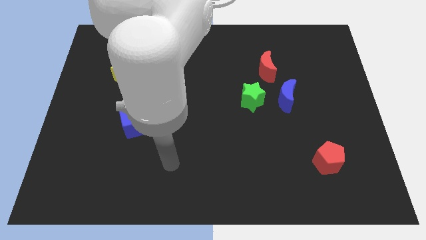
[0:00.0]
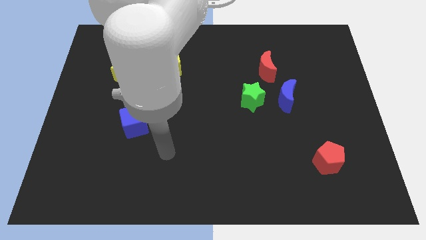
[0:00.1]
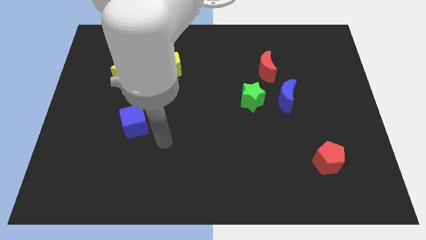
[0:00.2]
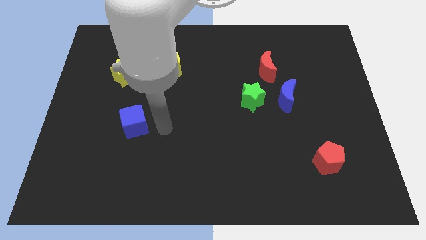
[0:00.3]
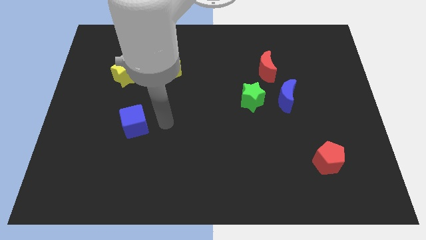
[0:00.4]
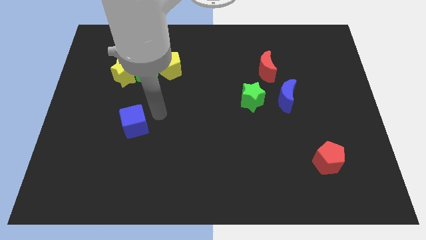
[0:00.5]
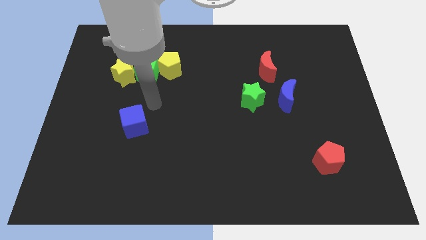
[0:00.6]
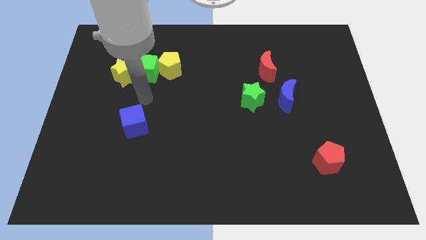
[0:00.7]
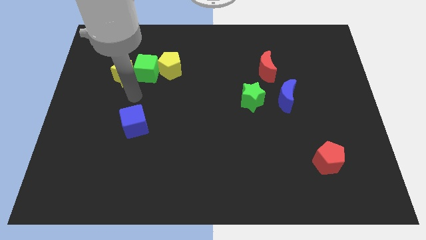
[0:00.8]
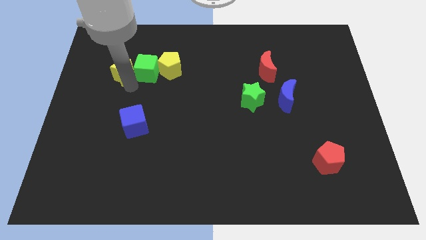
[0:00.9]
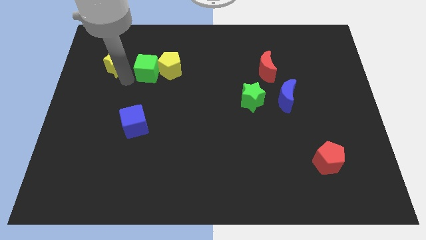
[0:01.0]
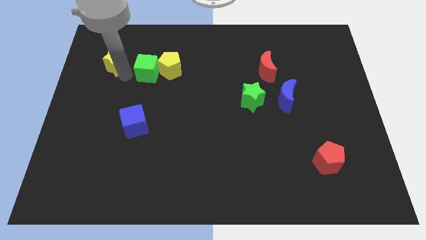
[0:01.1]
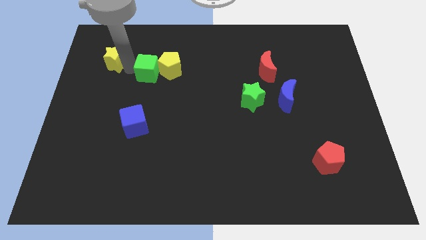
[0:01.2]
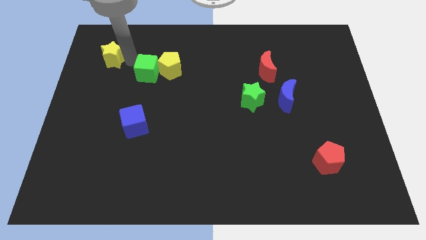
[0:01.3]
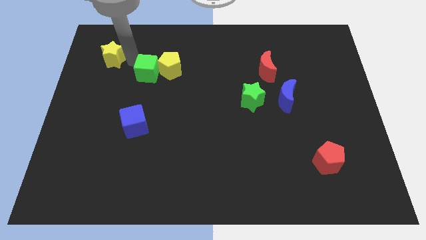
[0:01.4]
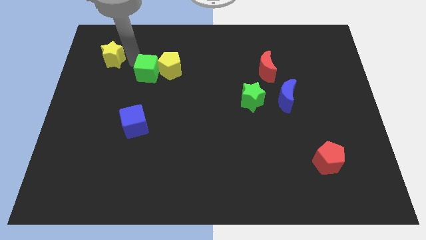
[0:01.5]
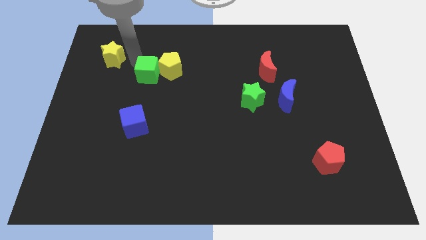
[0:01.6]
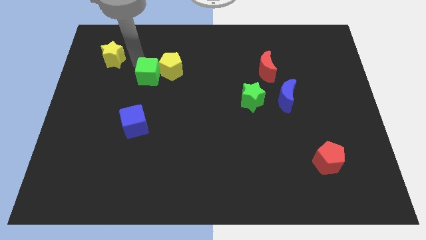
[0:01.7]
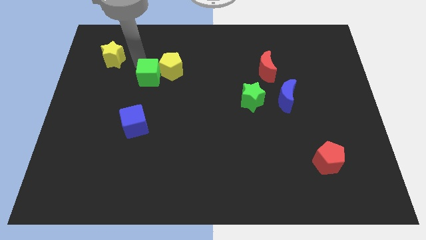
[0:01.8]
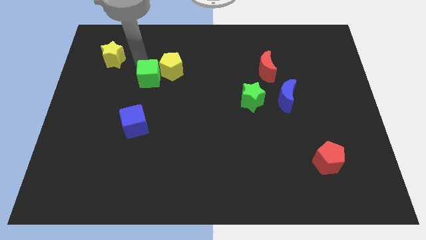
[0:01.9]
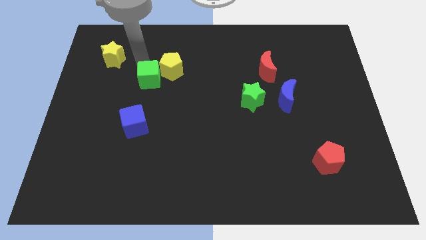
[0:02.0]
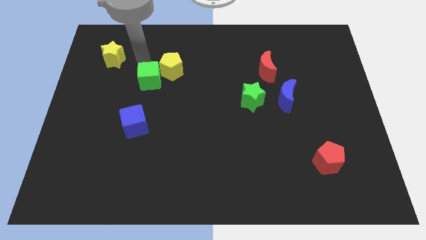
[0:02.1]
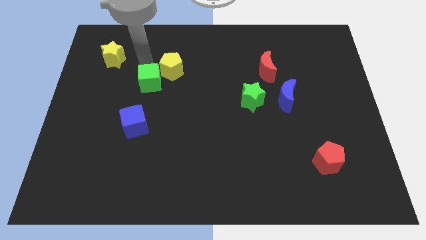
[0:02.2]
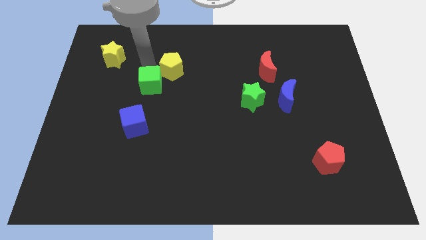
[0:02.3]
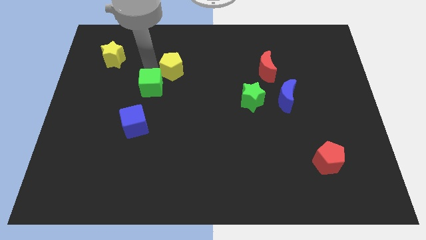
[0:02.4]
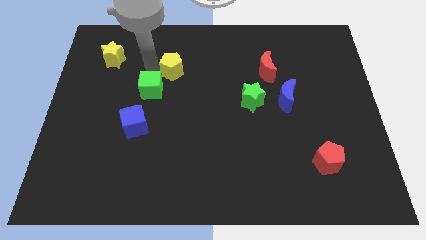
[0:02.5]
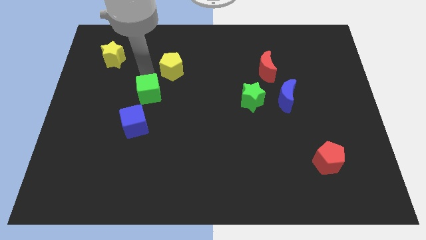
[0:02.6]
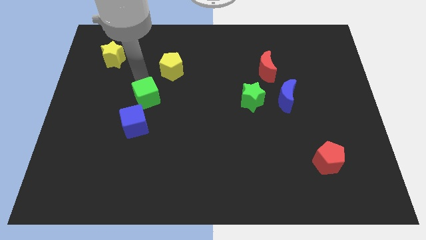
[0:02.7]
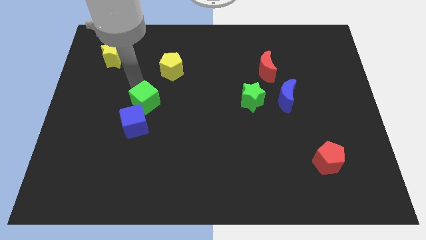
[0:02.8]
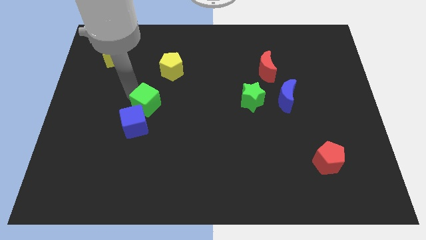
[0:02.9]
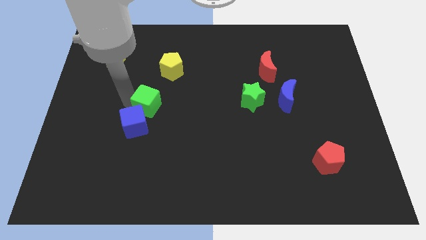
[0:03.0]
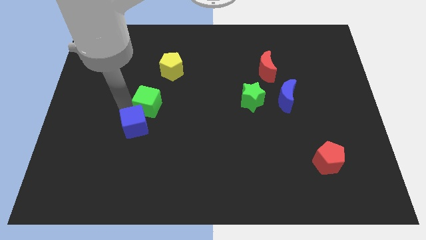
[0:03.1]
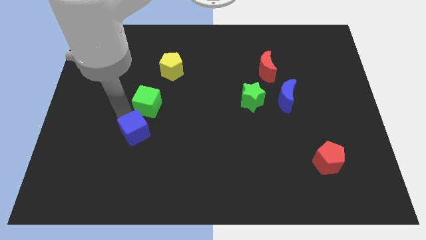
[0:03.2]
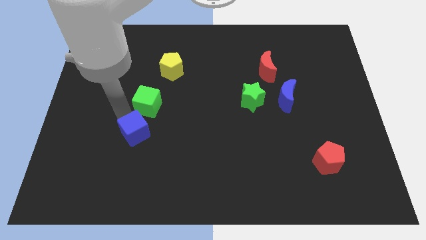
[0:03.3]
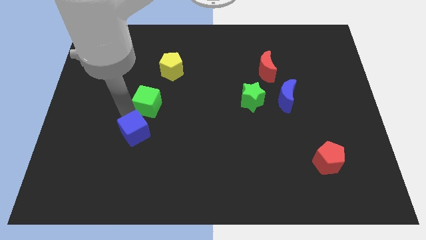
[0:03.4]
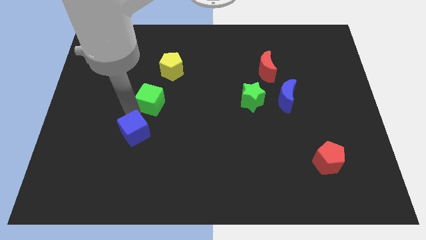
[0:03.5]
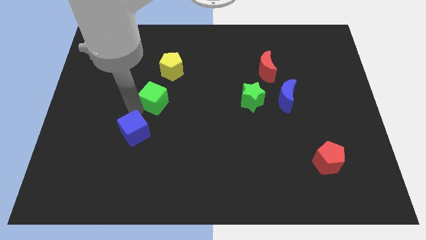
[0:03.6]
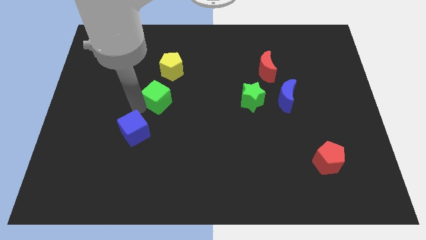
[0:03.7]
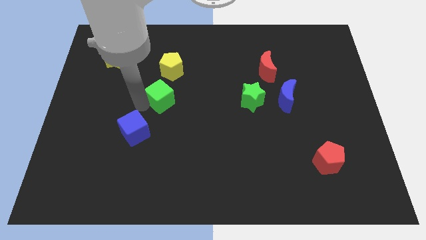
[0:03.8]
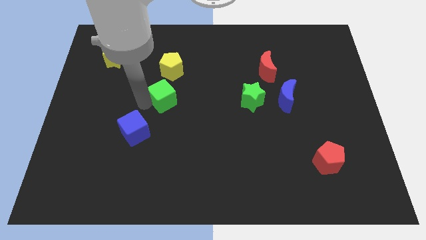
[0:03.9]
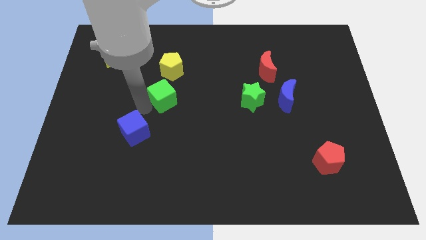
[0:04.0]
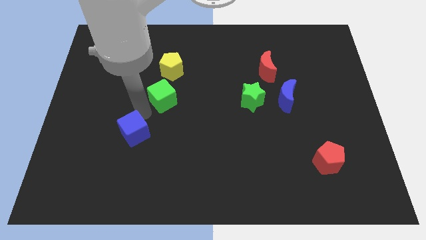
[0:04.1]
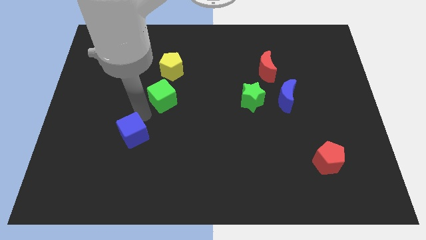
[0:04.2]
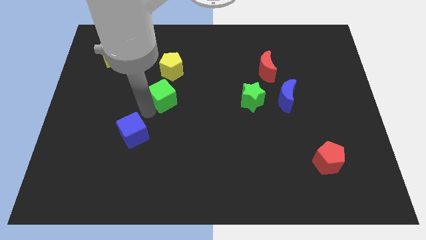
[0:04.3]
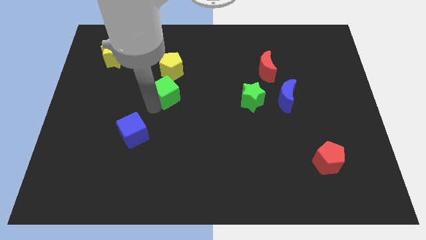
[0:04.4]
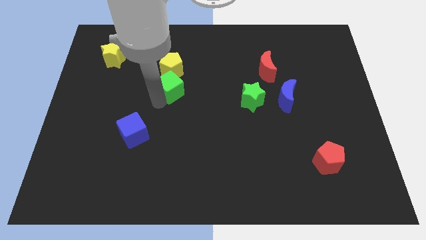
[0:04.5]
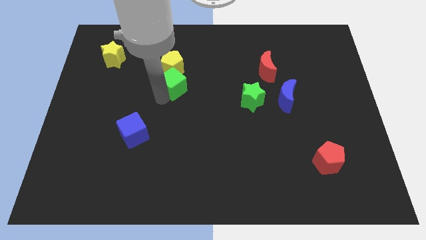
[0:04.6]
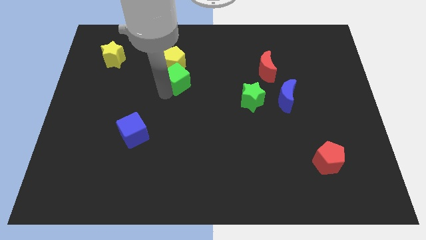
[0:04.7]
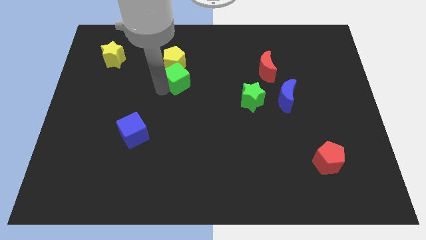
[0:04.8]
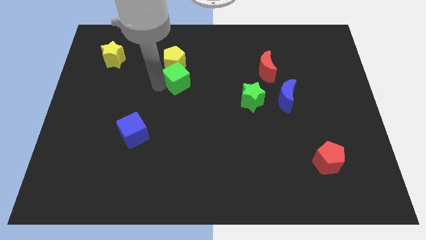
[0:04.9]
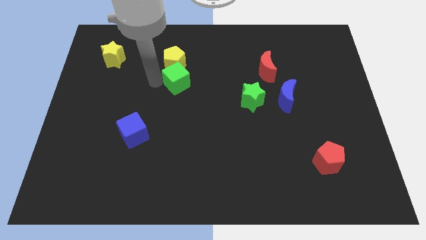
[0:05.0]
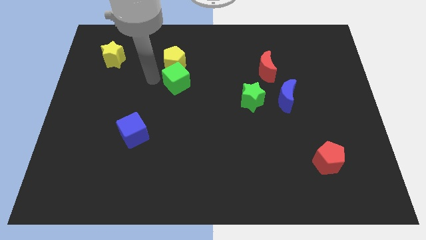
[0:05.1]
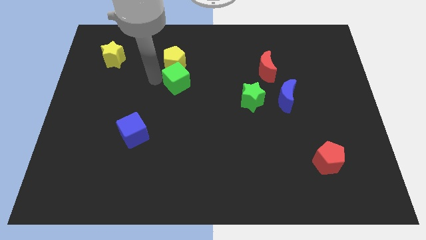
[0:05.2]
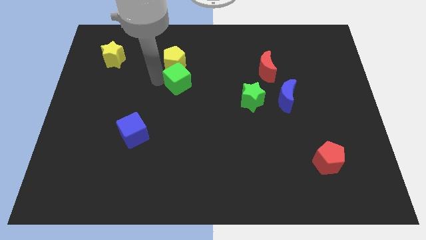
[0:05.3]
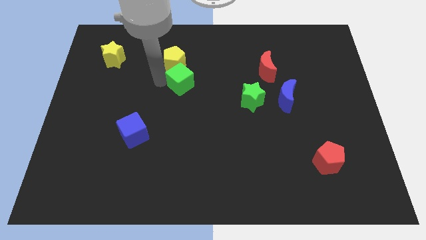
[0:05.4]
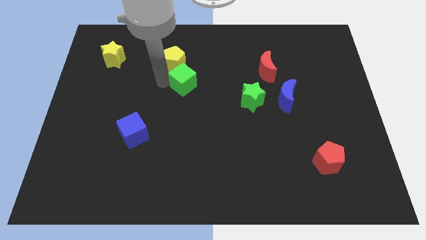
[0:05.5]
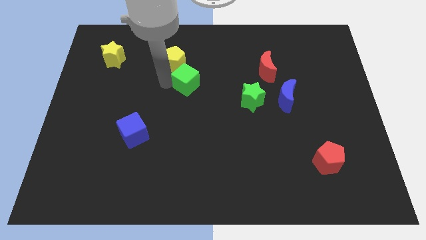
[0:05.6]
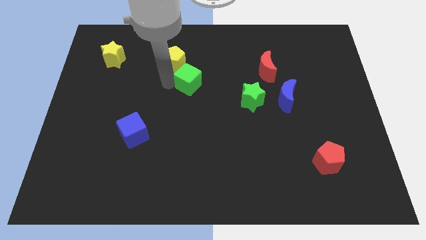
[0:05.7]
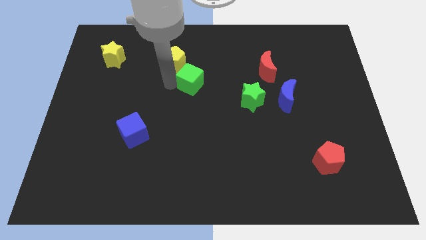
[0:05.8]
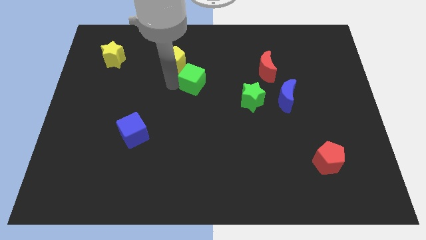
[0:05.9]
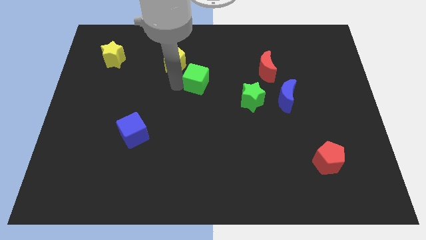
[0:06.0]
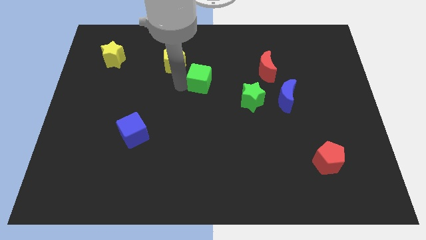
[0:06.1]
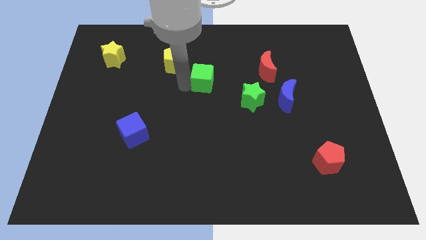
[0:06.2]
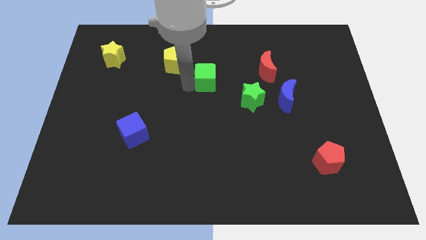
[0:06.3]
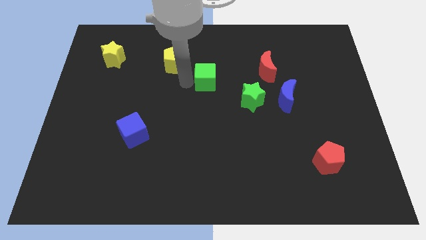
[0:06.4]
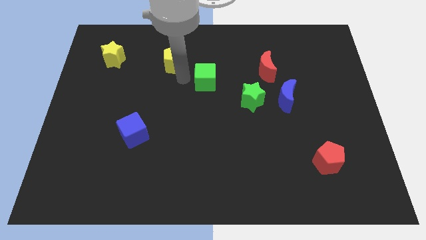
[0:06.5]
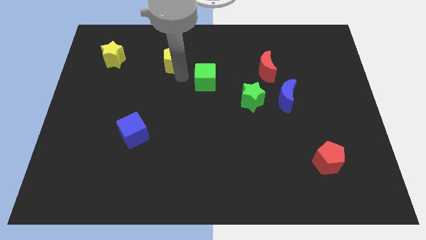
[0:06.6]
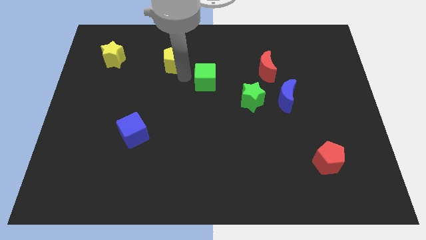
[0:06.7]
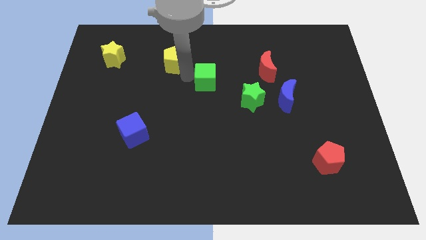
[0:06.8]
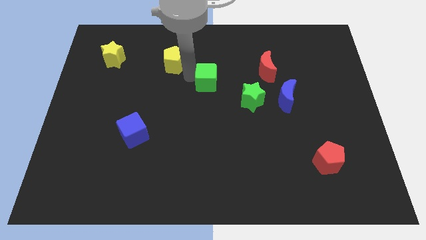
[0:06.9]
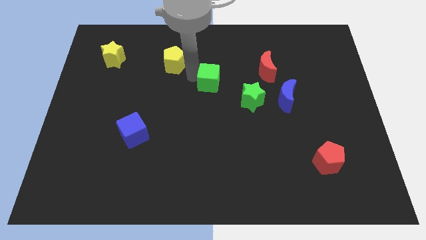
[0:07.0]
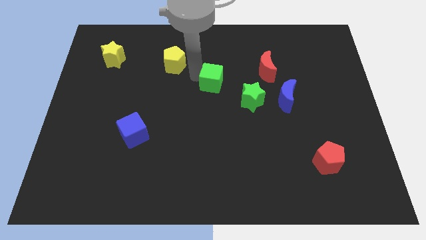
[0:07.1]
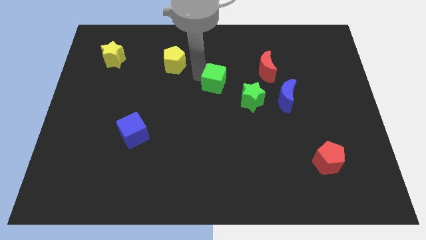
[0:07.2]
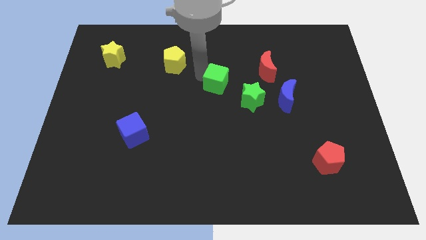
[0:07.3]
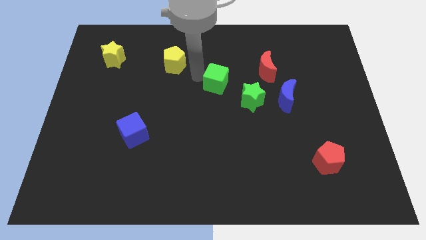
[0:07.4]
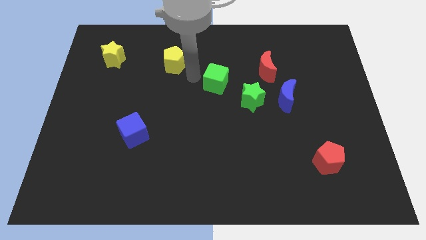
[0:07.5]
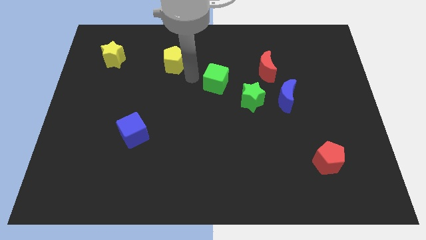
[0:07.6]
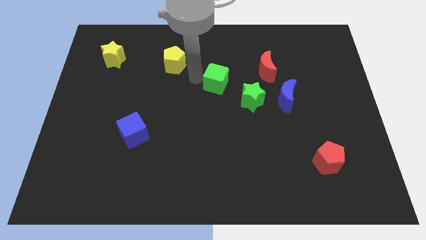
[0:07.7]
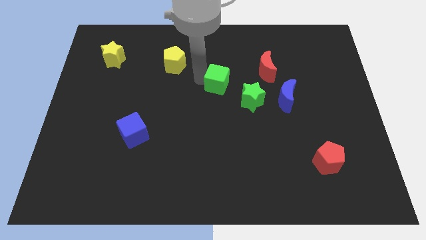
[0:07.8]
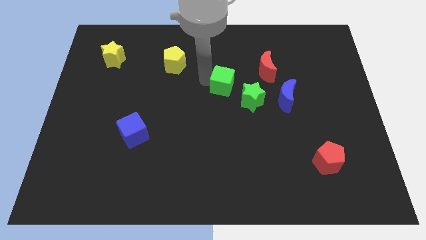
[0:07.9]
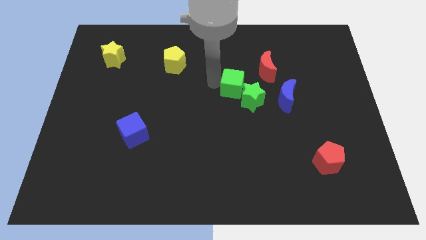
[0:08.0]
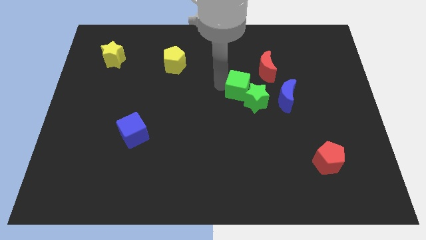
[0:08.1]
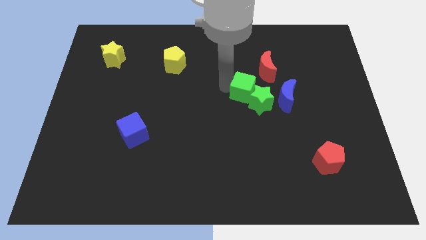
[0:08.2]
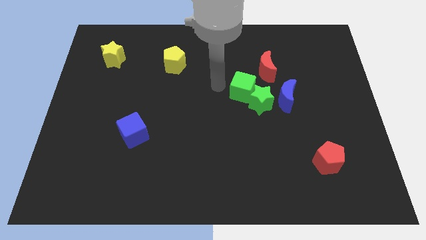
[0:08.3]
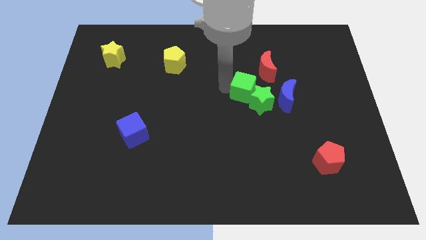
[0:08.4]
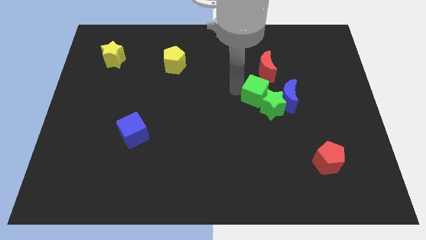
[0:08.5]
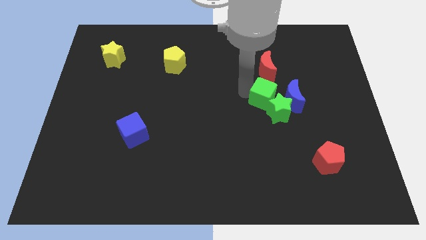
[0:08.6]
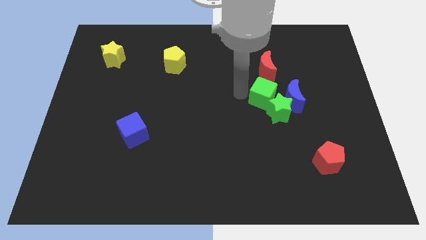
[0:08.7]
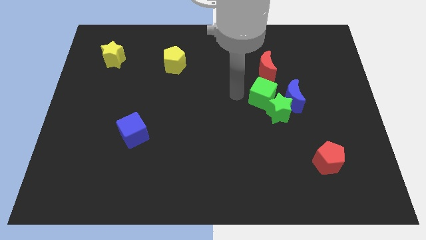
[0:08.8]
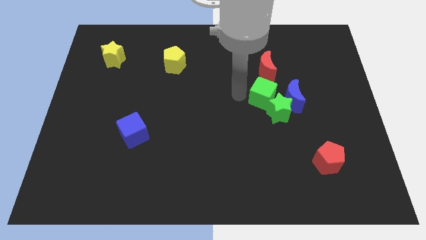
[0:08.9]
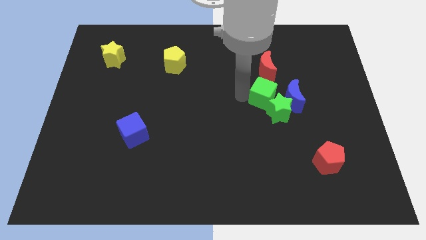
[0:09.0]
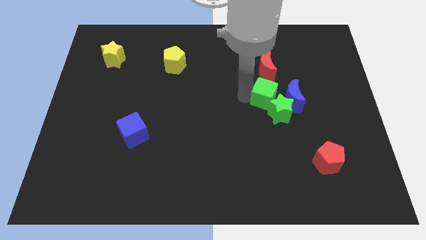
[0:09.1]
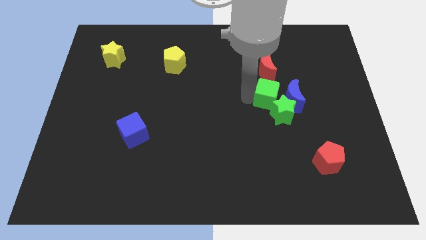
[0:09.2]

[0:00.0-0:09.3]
slide the green cube to the blue moon
